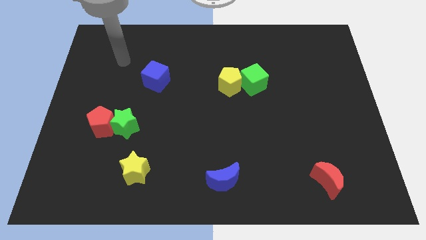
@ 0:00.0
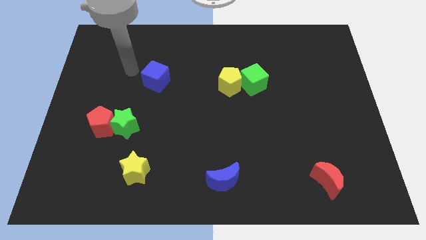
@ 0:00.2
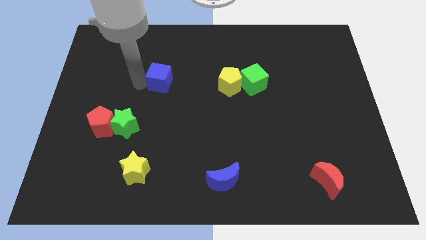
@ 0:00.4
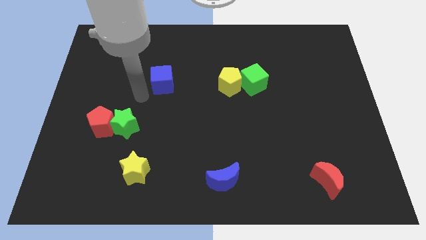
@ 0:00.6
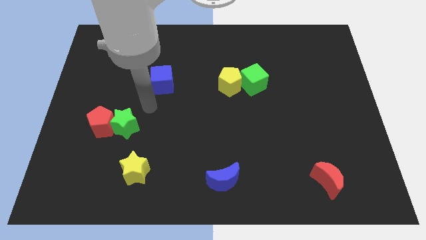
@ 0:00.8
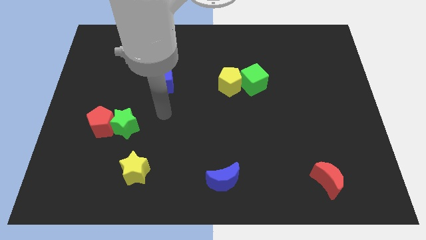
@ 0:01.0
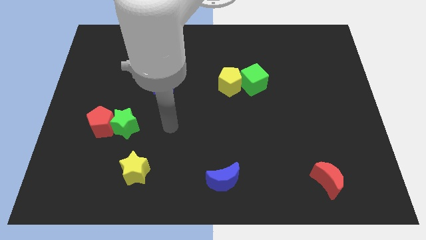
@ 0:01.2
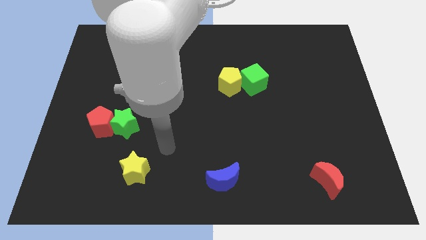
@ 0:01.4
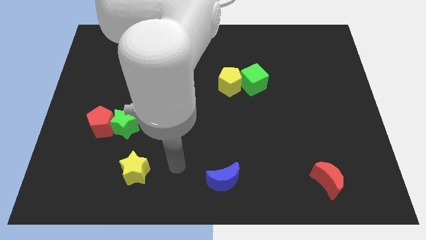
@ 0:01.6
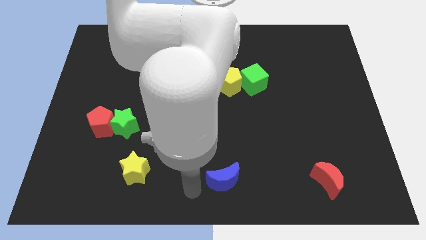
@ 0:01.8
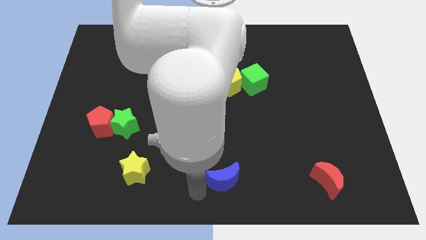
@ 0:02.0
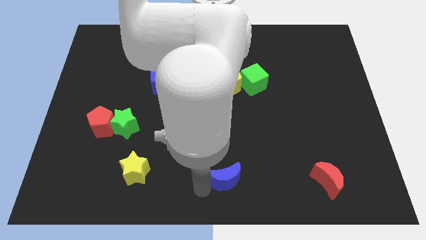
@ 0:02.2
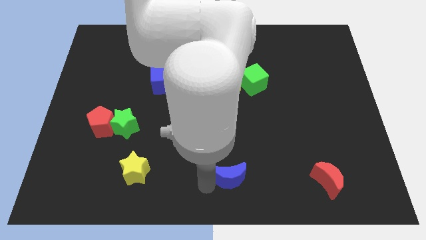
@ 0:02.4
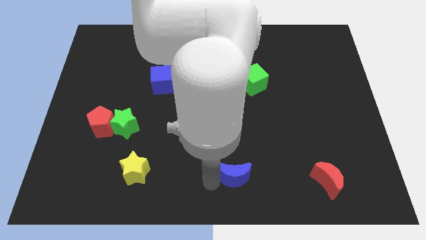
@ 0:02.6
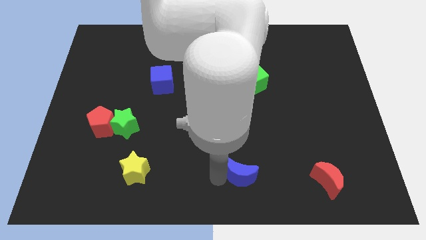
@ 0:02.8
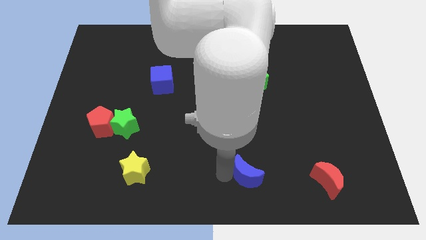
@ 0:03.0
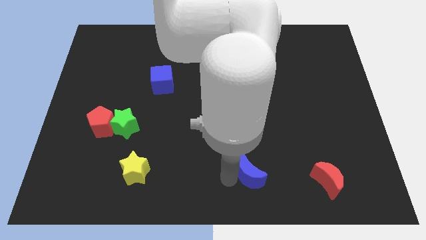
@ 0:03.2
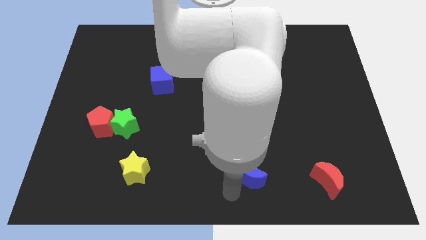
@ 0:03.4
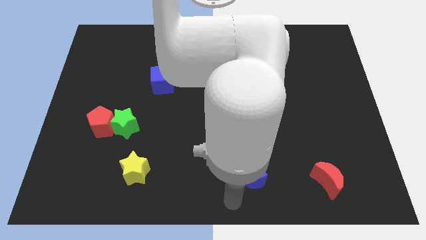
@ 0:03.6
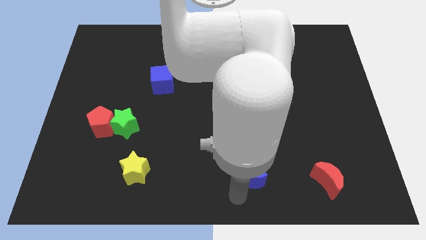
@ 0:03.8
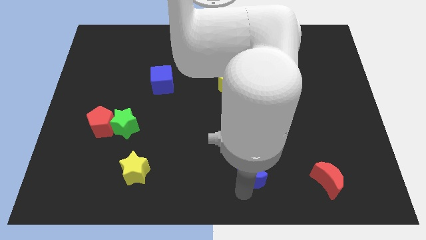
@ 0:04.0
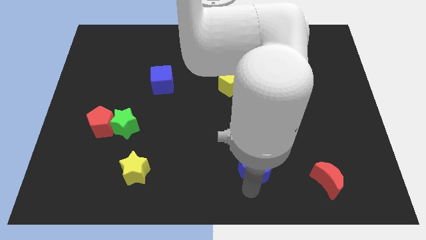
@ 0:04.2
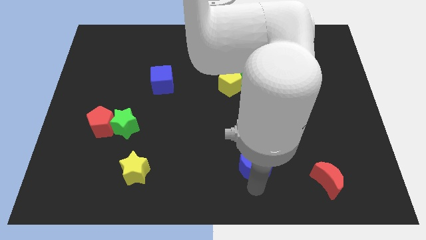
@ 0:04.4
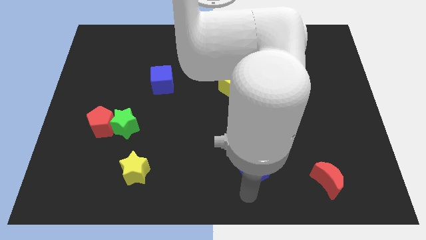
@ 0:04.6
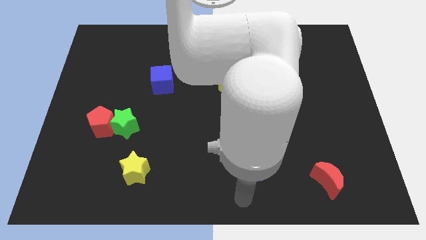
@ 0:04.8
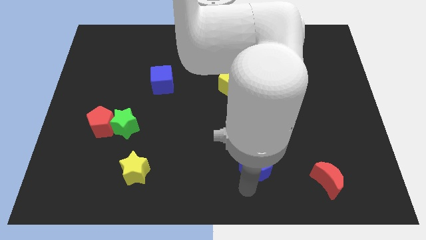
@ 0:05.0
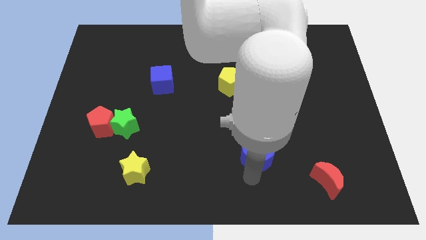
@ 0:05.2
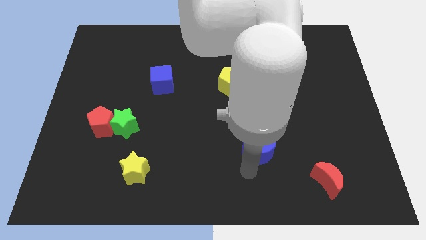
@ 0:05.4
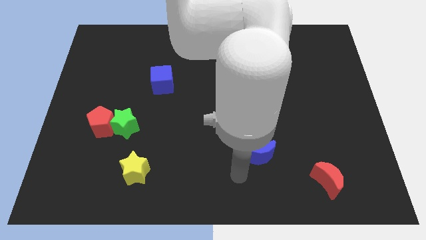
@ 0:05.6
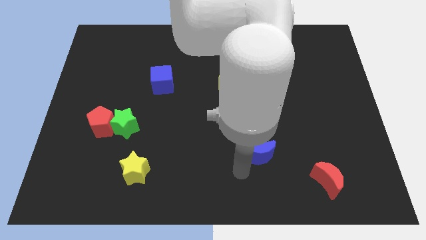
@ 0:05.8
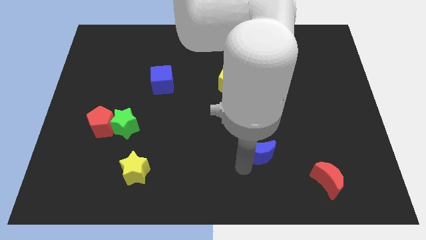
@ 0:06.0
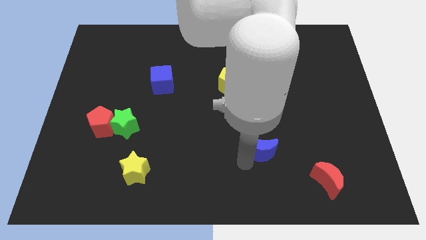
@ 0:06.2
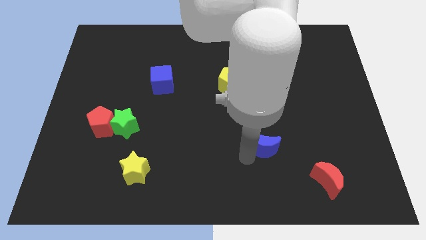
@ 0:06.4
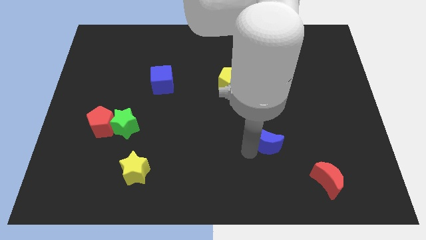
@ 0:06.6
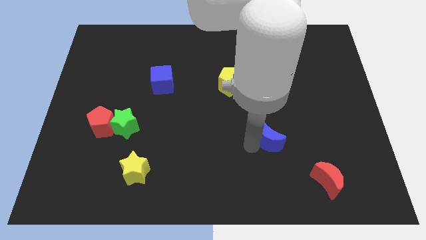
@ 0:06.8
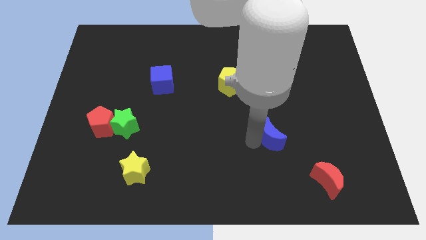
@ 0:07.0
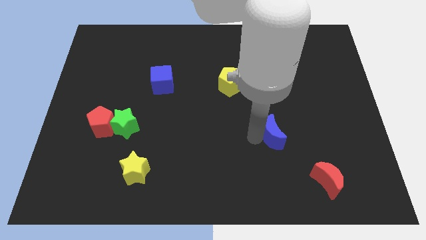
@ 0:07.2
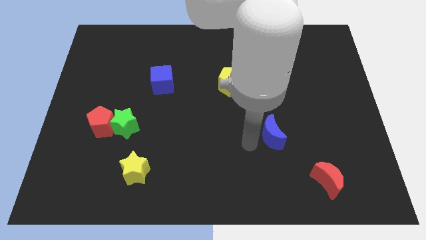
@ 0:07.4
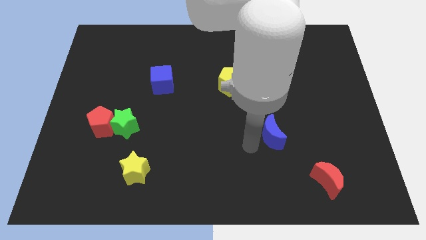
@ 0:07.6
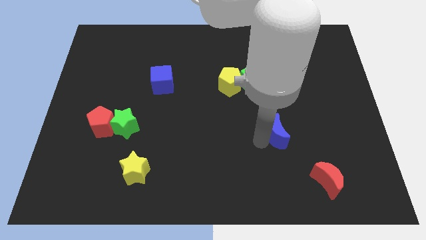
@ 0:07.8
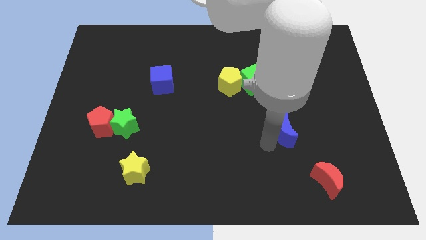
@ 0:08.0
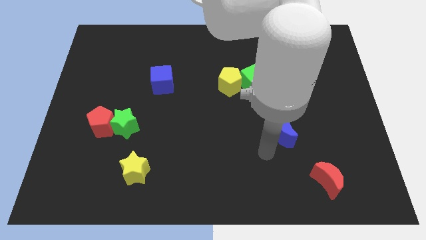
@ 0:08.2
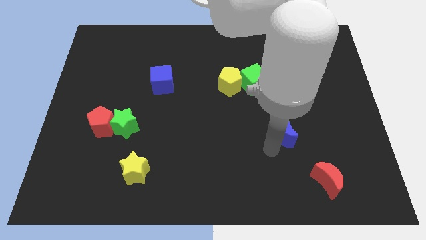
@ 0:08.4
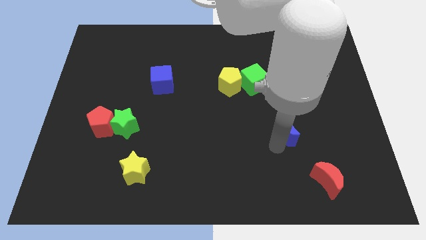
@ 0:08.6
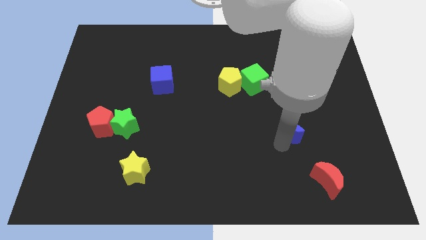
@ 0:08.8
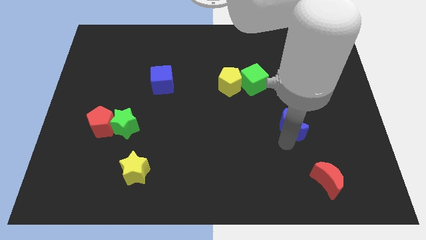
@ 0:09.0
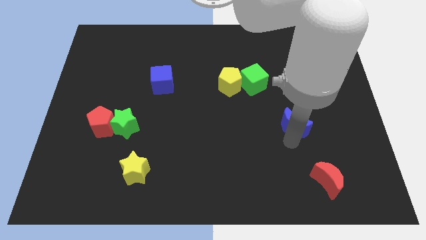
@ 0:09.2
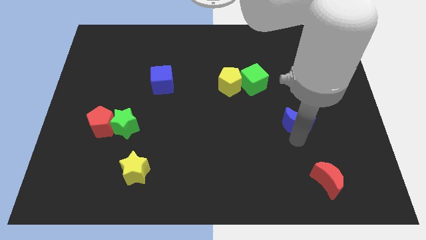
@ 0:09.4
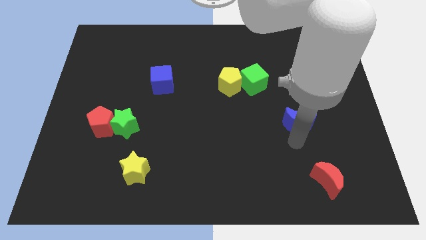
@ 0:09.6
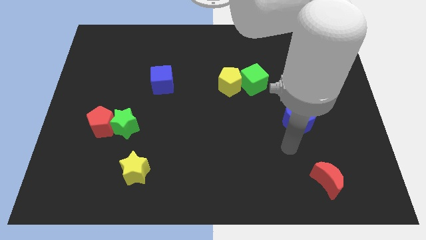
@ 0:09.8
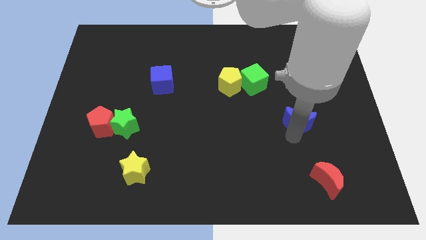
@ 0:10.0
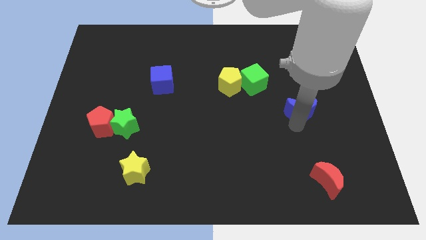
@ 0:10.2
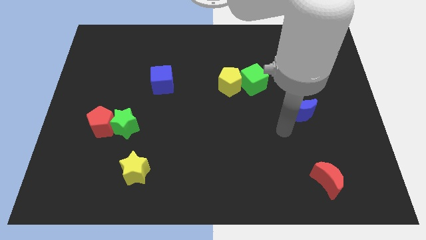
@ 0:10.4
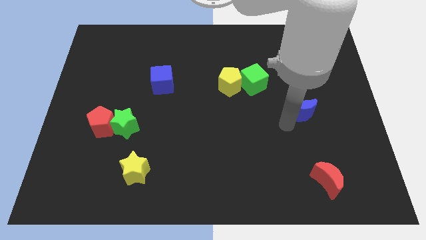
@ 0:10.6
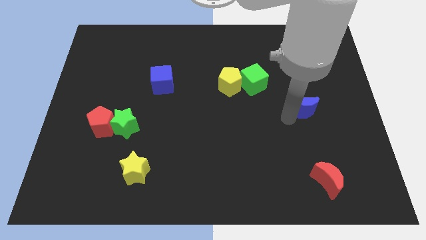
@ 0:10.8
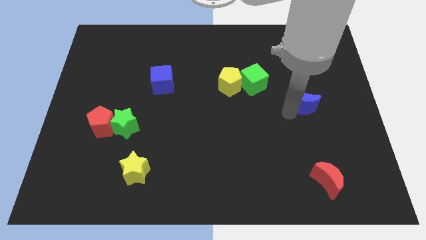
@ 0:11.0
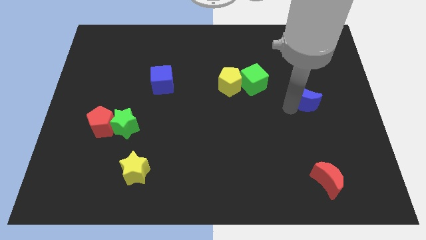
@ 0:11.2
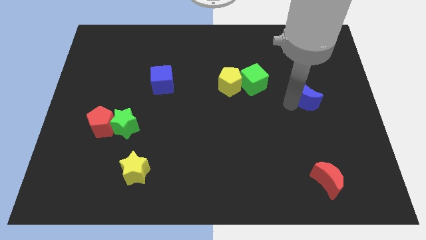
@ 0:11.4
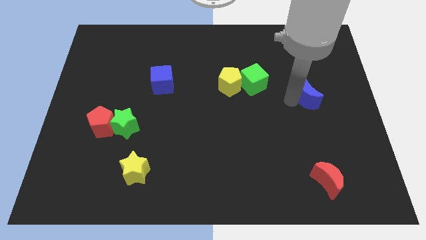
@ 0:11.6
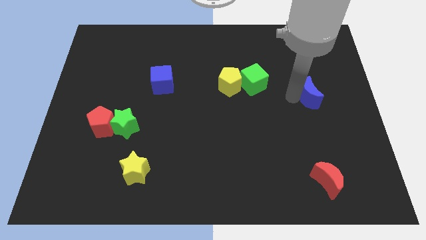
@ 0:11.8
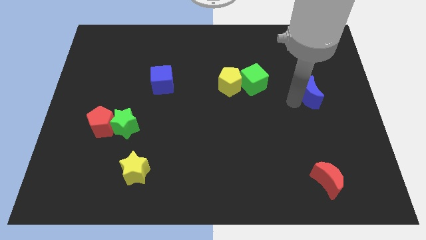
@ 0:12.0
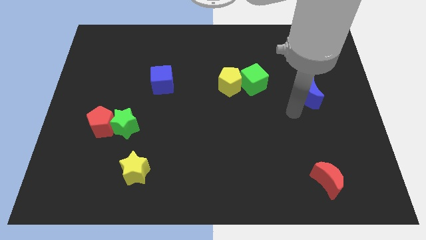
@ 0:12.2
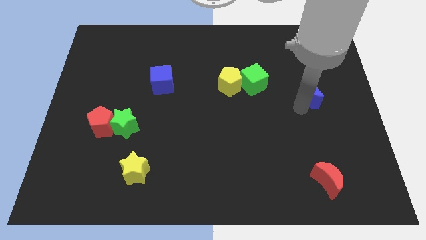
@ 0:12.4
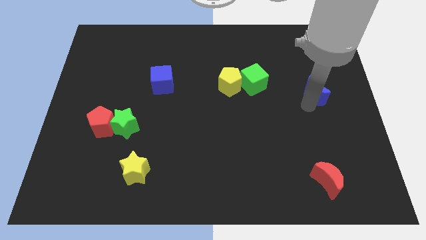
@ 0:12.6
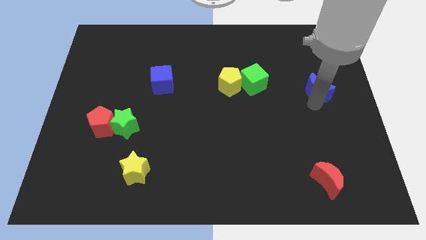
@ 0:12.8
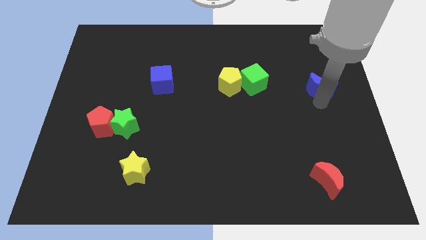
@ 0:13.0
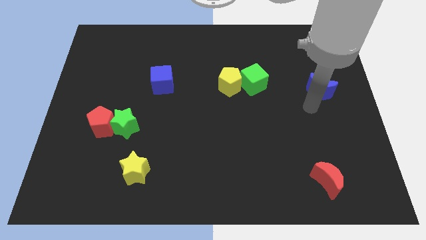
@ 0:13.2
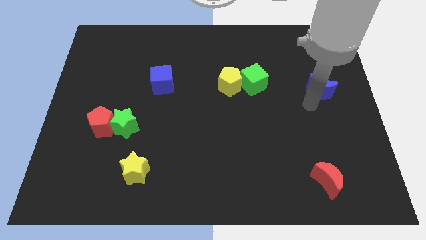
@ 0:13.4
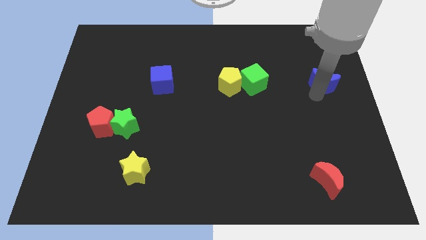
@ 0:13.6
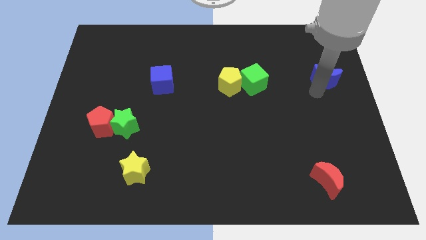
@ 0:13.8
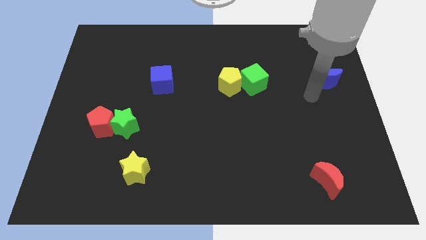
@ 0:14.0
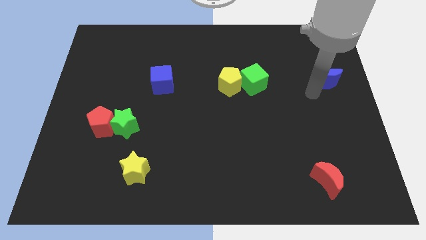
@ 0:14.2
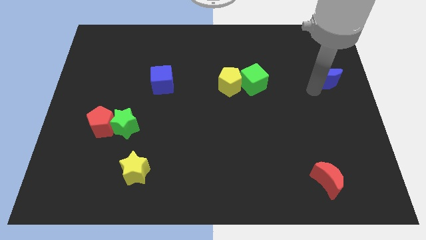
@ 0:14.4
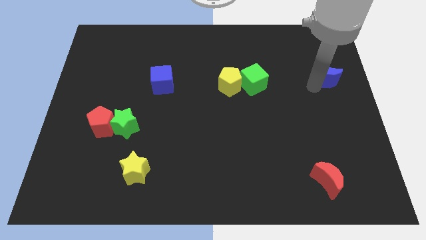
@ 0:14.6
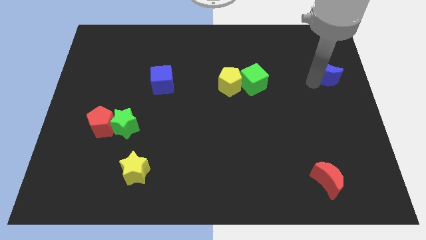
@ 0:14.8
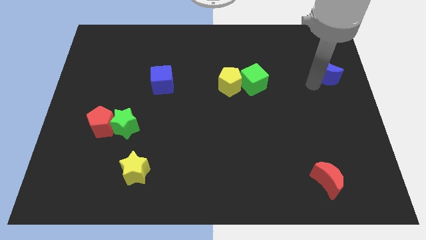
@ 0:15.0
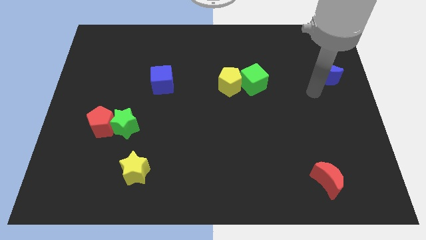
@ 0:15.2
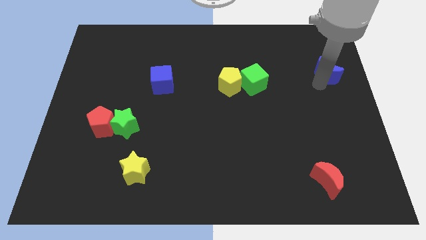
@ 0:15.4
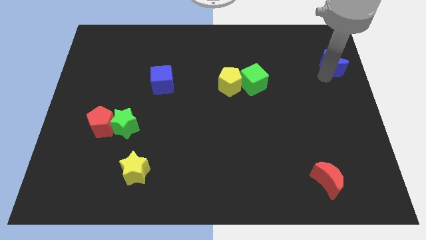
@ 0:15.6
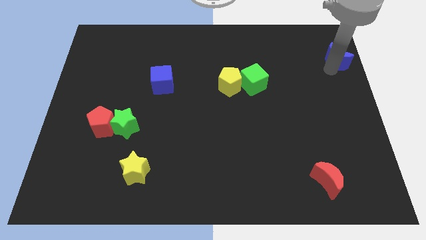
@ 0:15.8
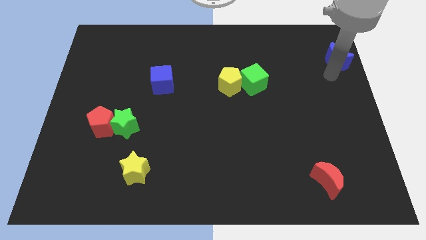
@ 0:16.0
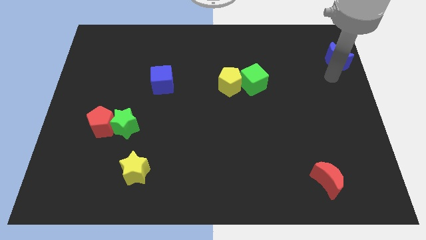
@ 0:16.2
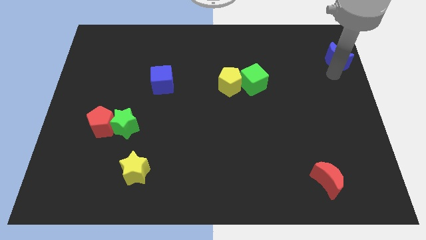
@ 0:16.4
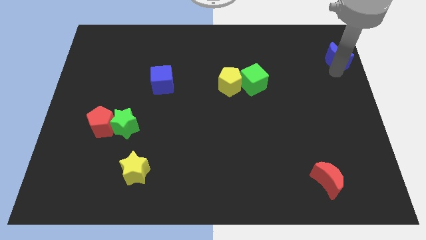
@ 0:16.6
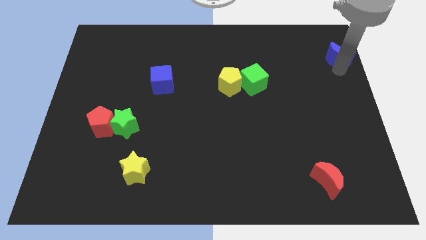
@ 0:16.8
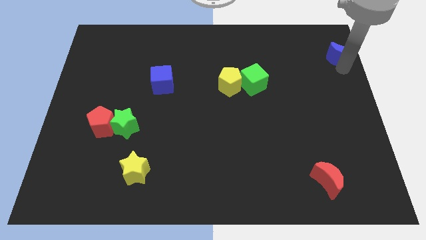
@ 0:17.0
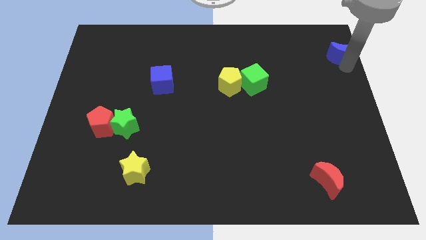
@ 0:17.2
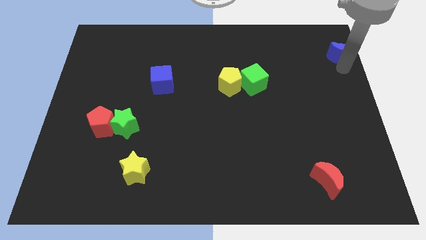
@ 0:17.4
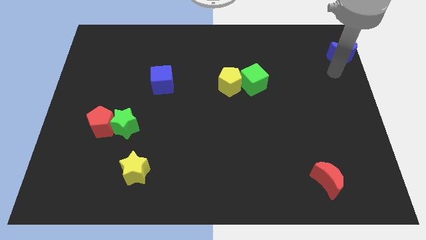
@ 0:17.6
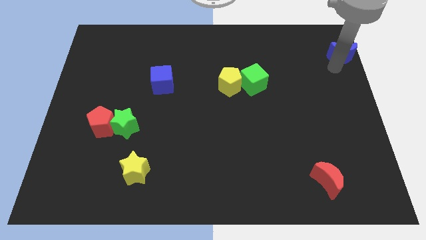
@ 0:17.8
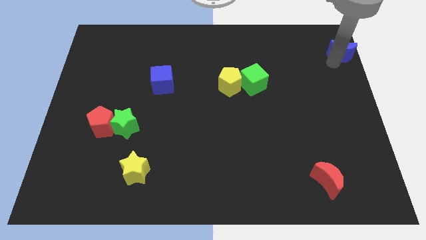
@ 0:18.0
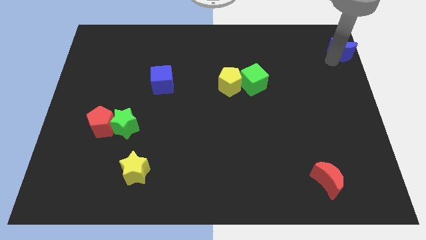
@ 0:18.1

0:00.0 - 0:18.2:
move the blue moon to the top right corner
